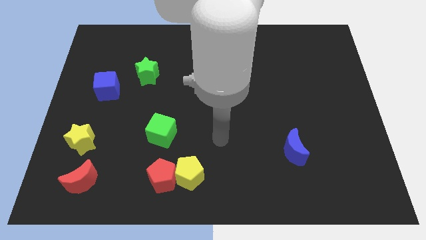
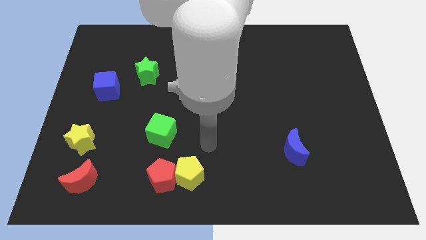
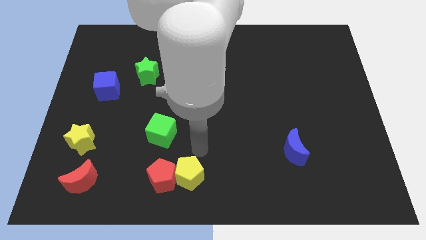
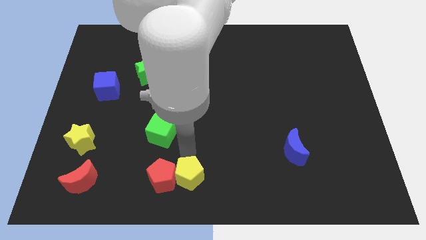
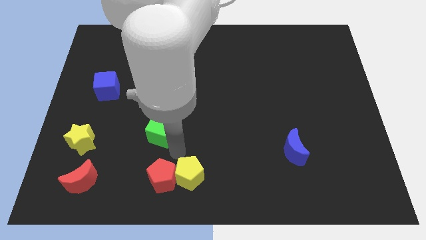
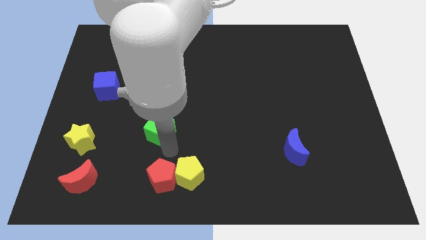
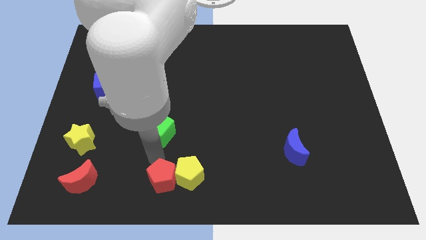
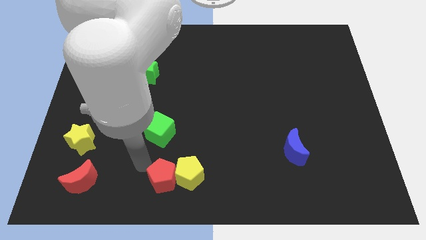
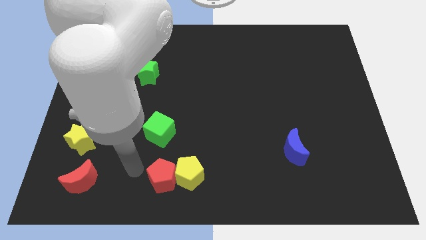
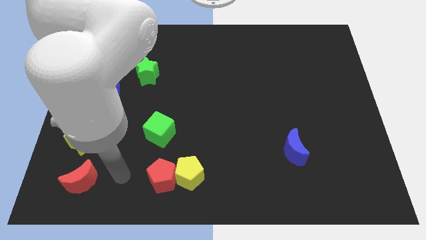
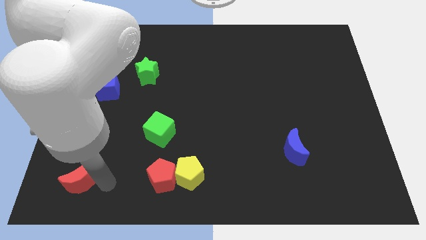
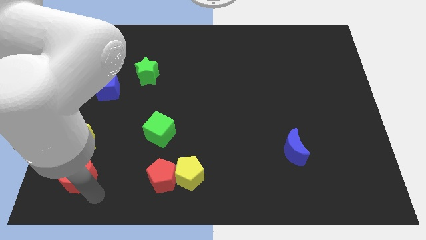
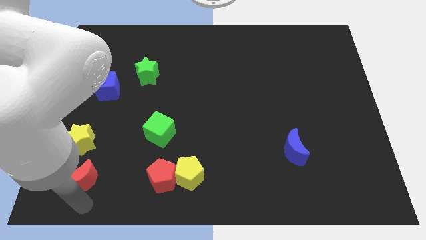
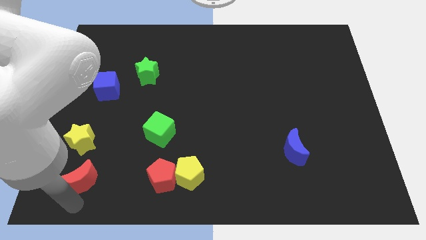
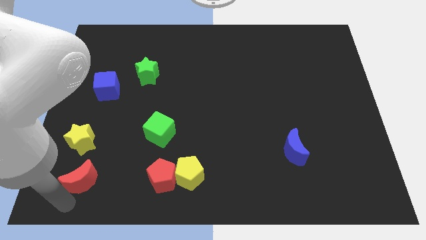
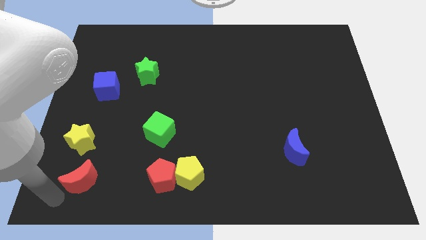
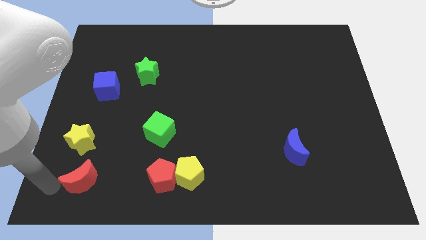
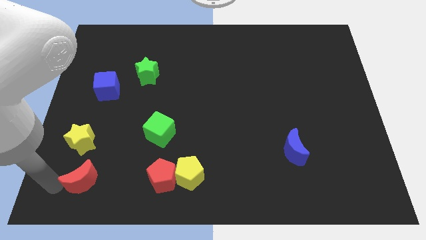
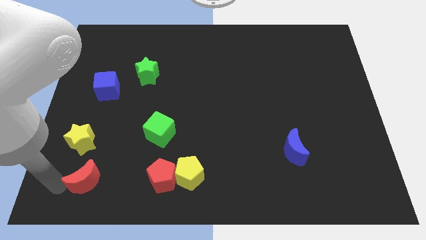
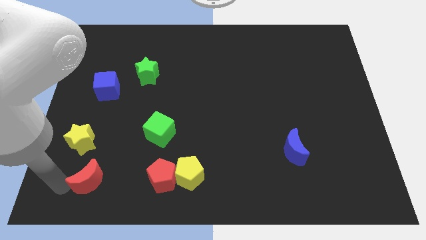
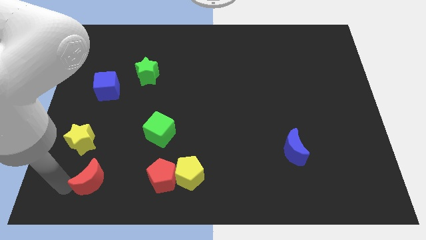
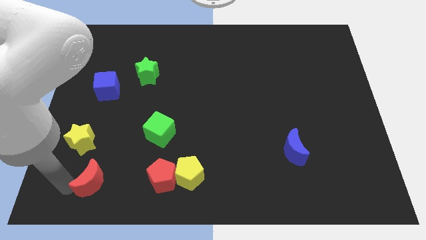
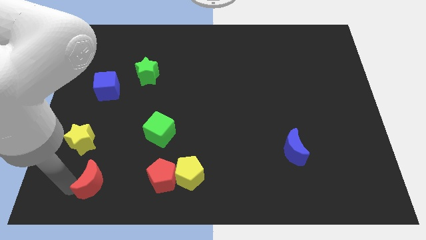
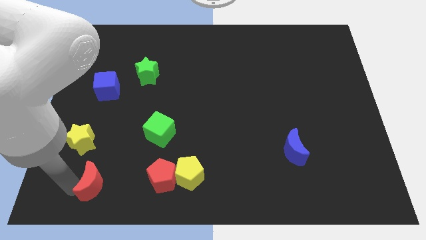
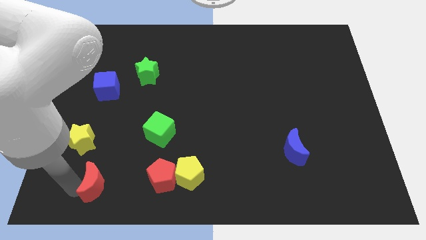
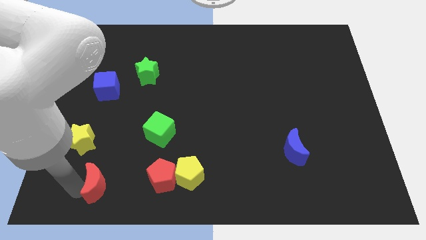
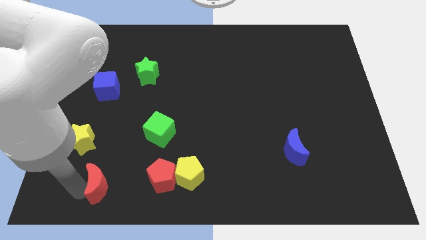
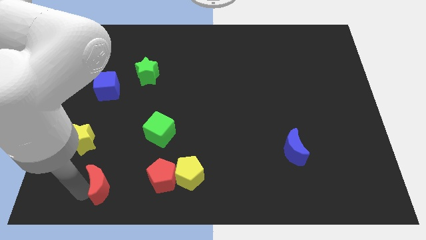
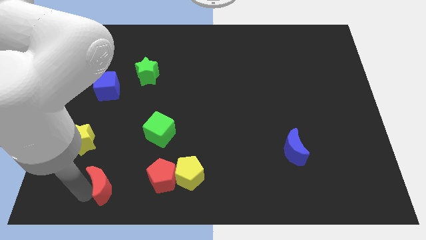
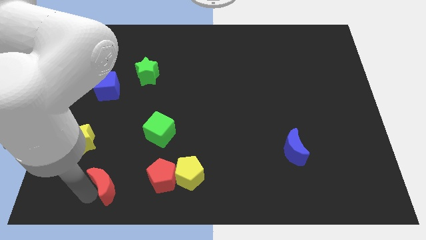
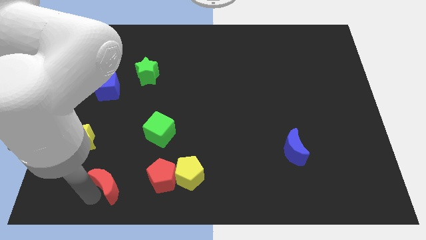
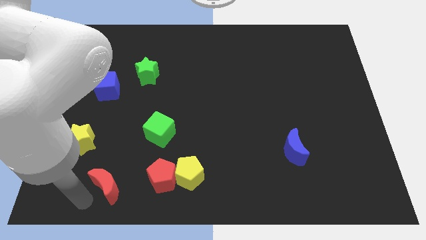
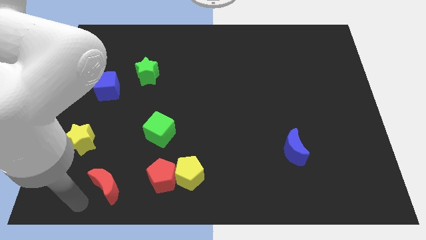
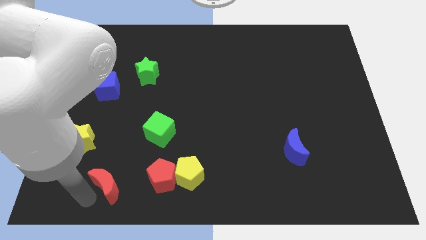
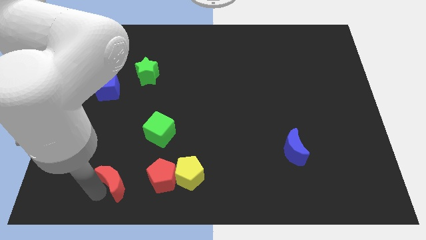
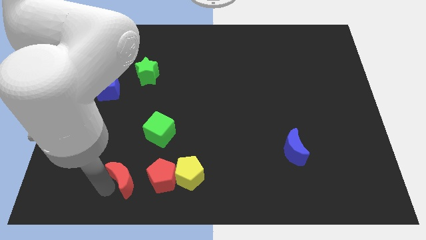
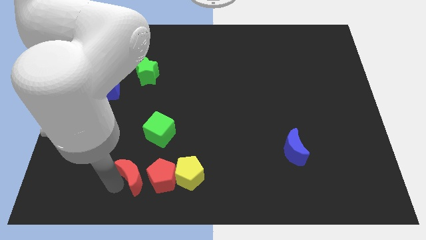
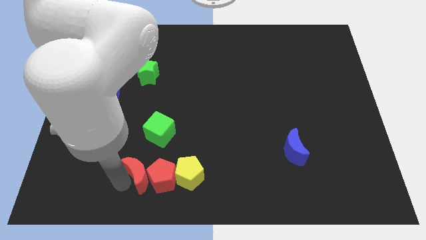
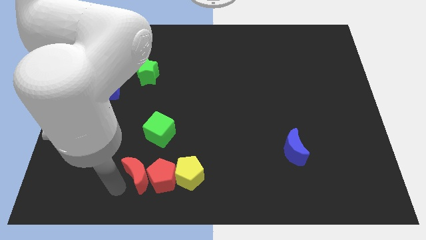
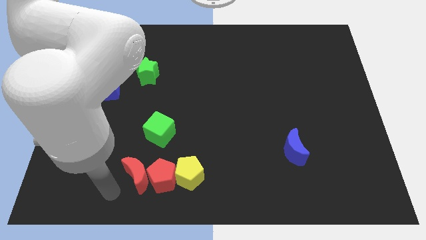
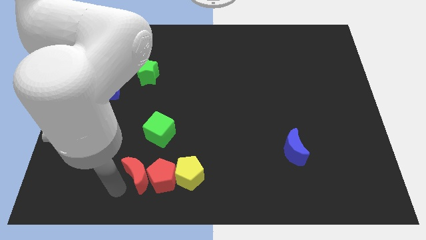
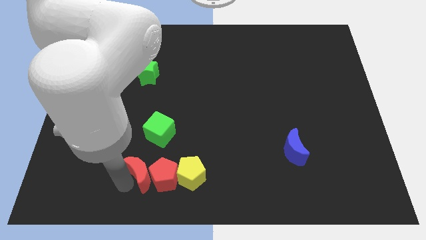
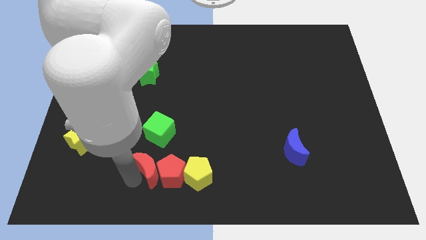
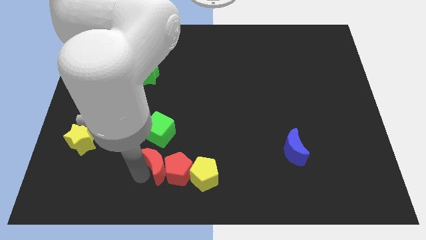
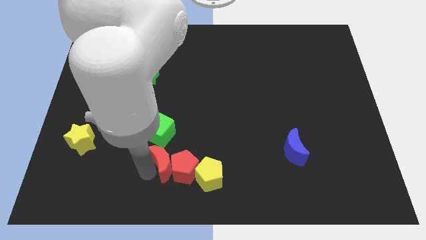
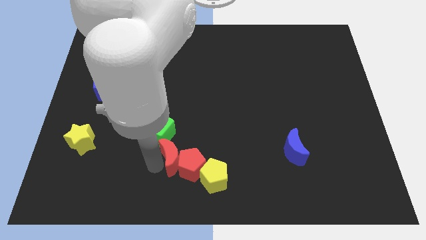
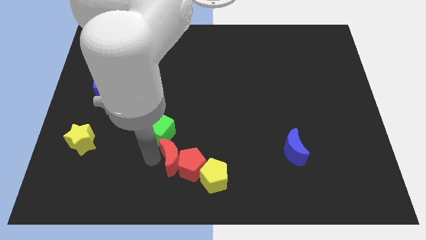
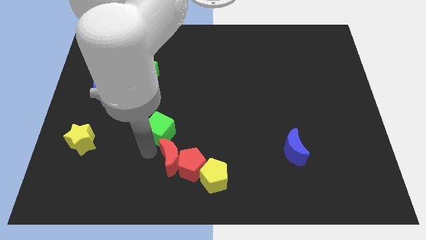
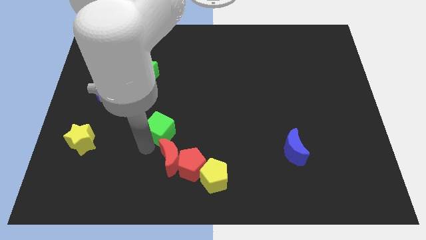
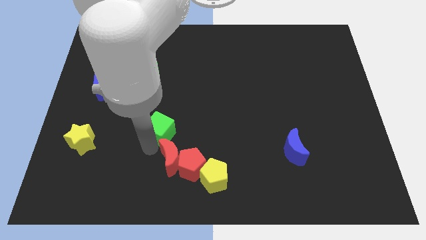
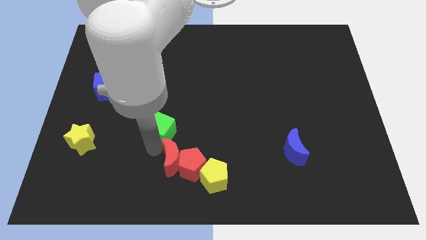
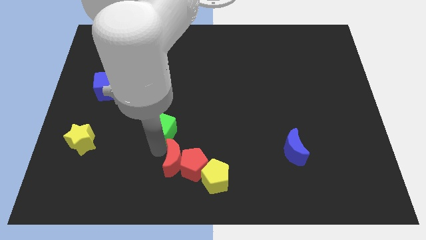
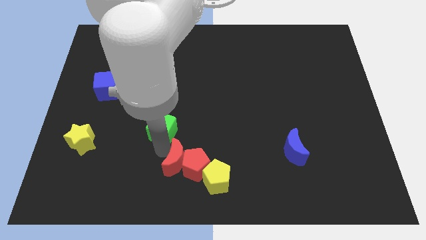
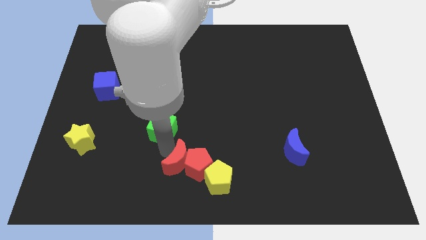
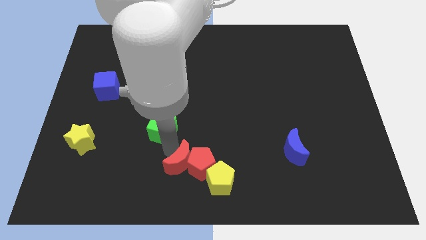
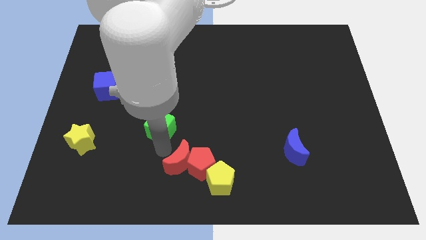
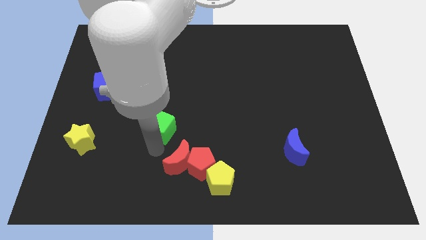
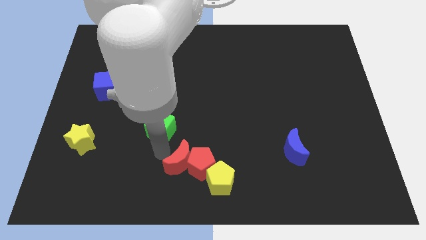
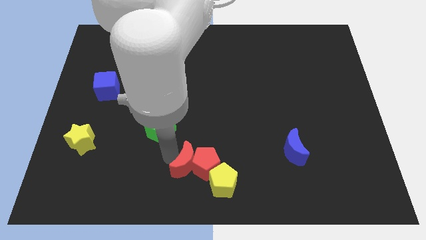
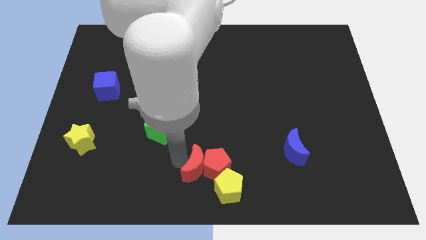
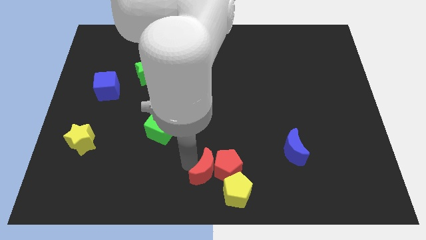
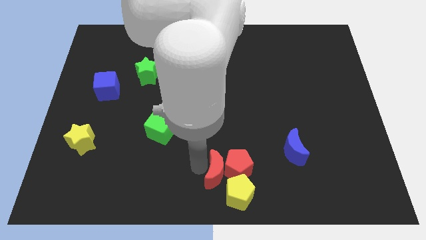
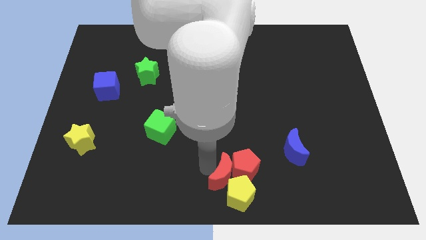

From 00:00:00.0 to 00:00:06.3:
push the red moon next to the yellow pentagon
